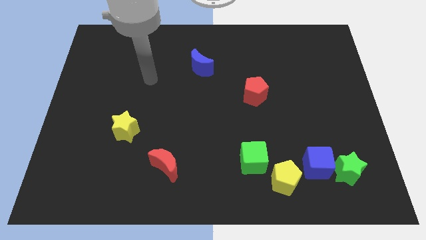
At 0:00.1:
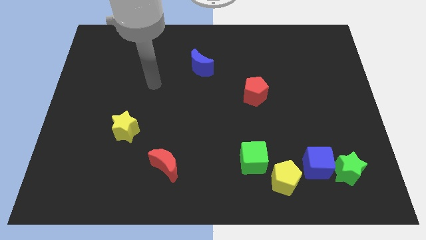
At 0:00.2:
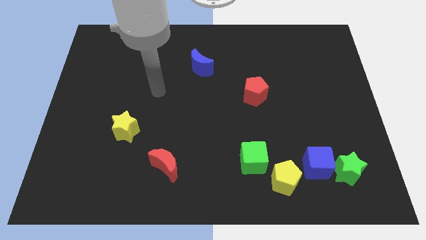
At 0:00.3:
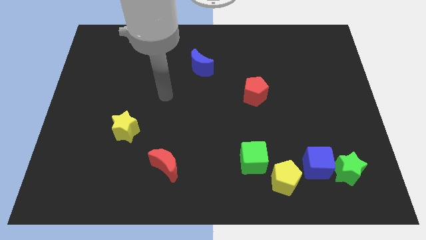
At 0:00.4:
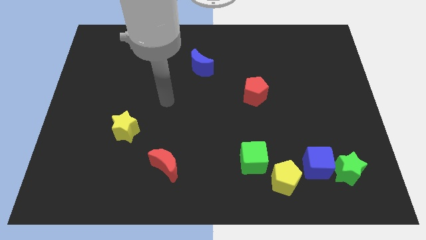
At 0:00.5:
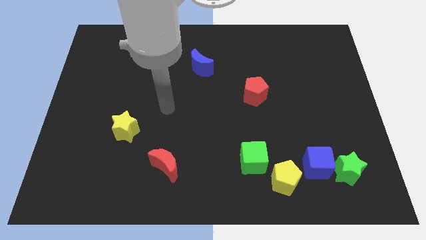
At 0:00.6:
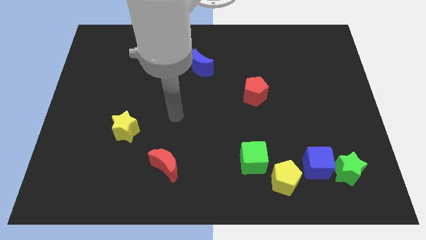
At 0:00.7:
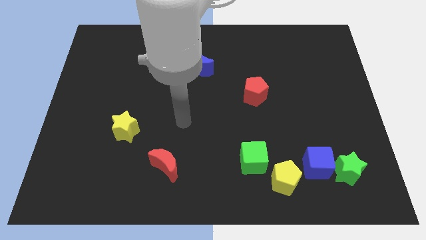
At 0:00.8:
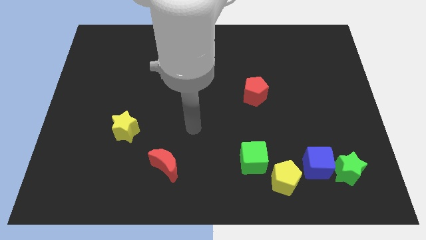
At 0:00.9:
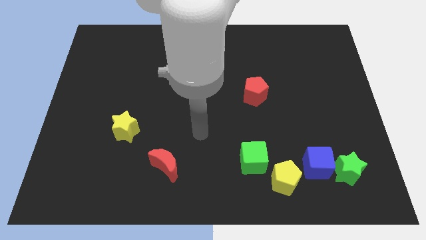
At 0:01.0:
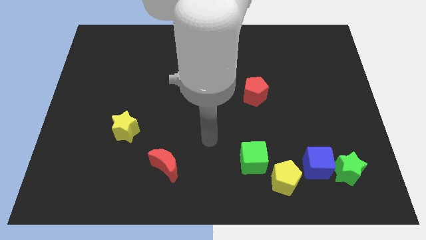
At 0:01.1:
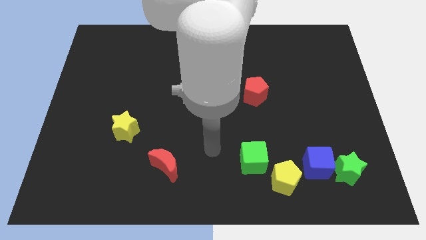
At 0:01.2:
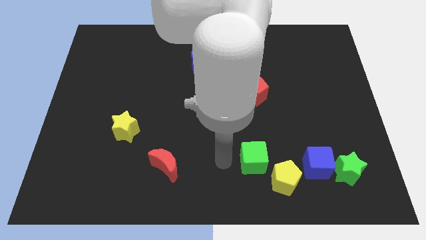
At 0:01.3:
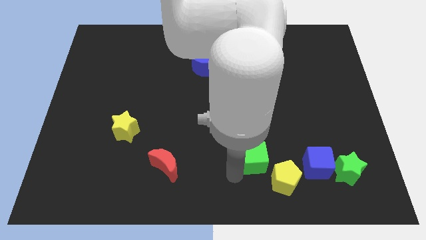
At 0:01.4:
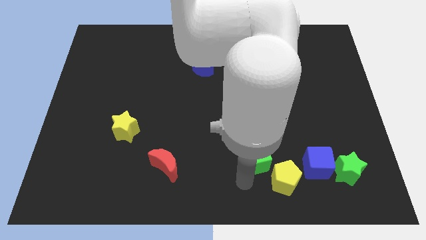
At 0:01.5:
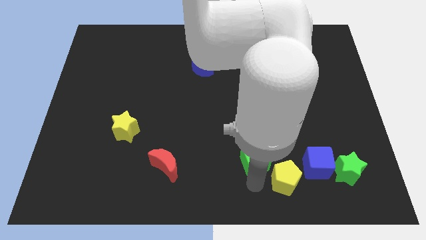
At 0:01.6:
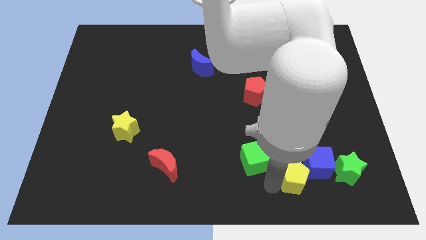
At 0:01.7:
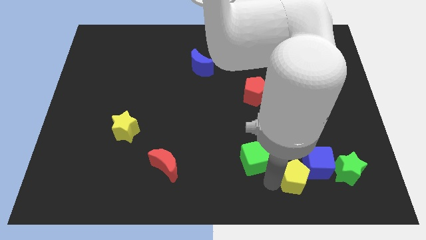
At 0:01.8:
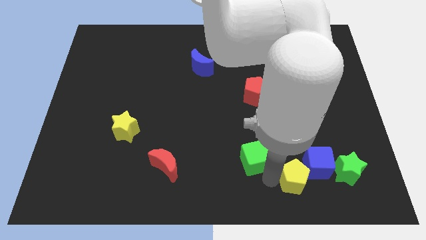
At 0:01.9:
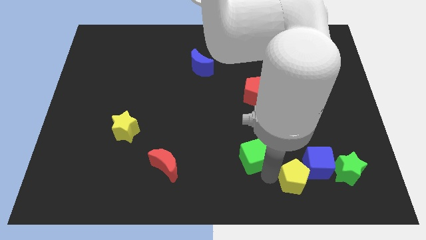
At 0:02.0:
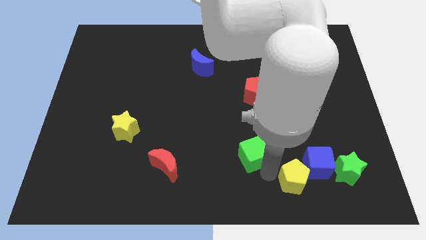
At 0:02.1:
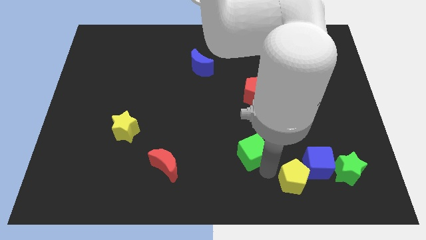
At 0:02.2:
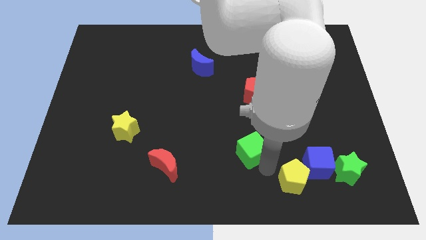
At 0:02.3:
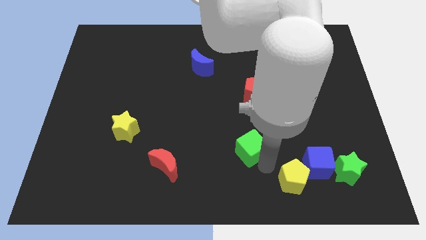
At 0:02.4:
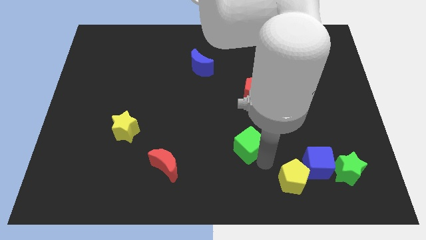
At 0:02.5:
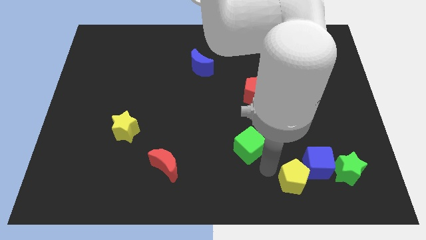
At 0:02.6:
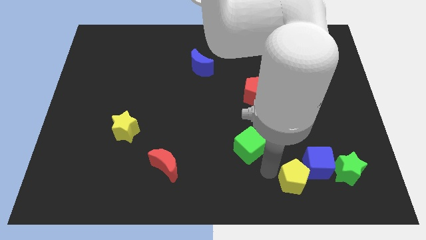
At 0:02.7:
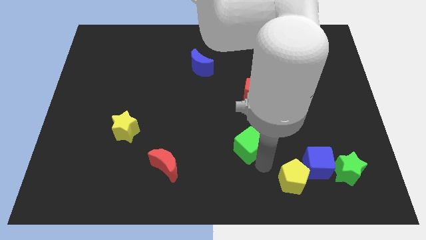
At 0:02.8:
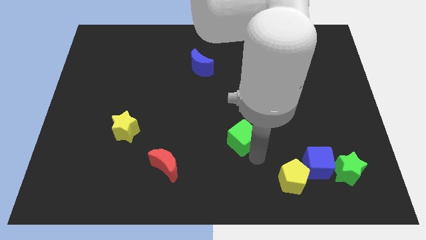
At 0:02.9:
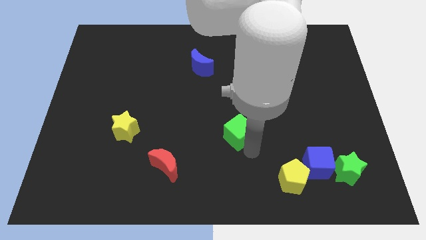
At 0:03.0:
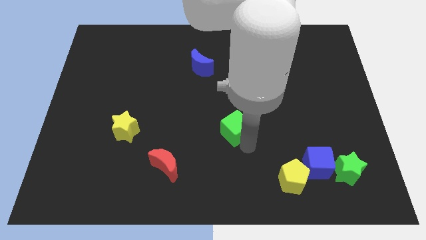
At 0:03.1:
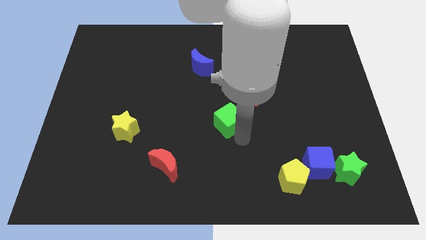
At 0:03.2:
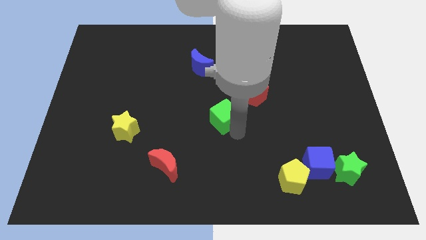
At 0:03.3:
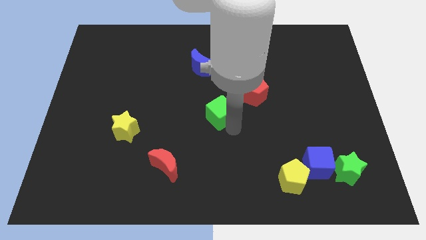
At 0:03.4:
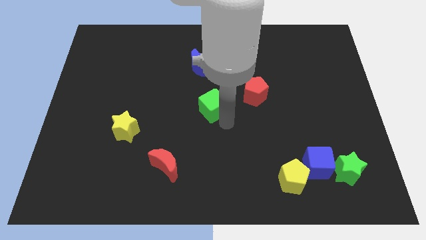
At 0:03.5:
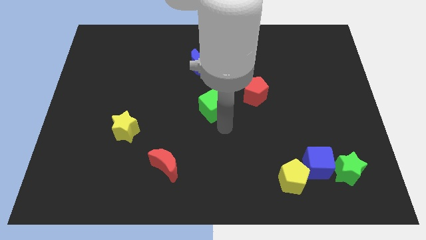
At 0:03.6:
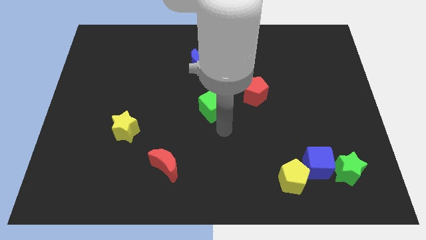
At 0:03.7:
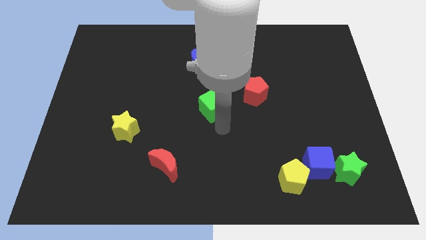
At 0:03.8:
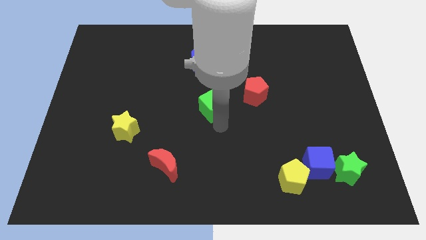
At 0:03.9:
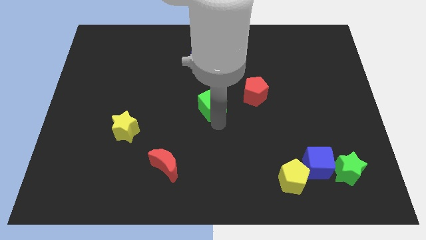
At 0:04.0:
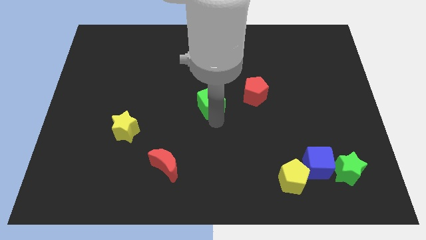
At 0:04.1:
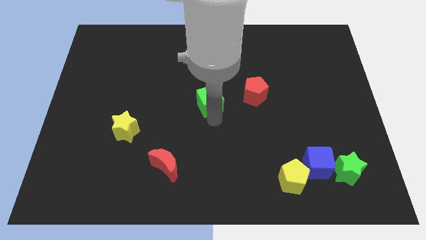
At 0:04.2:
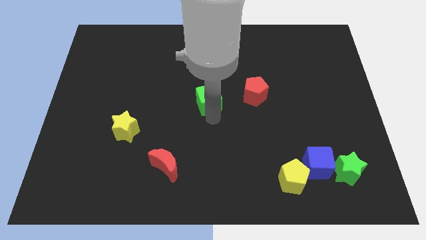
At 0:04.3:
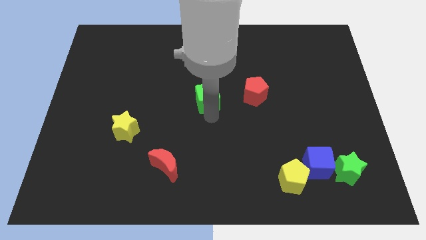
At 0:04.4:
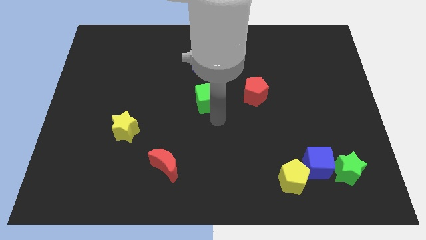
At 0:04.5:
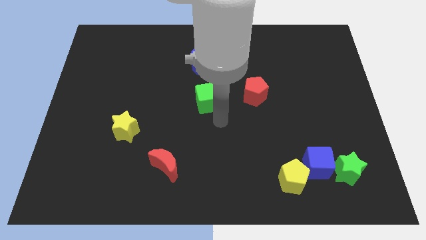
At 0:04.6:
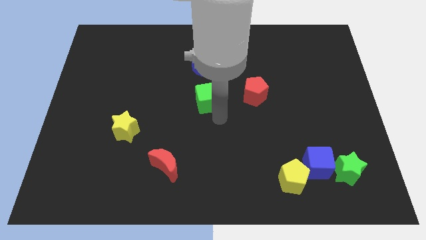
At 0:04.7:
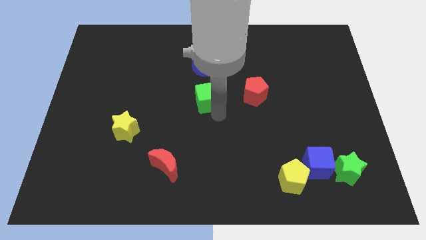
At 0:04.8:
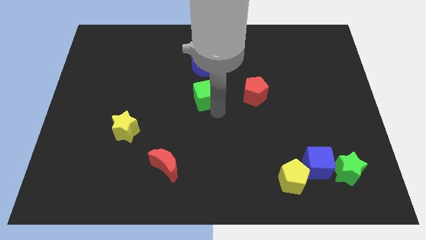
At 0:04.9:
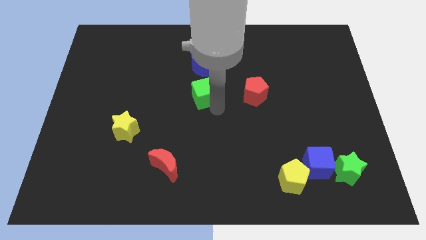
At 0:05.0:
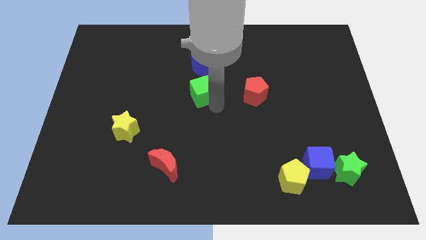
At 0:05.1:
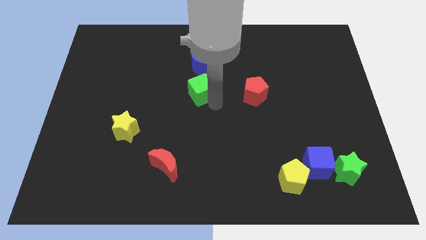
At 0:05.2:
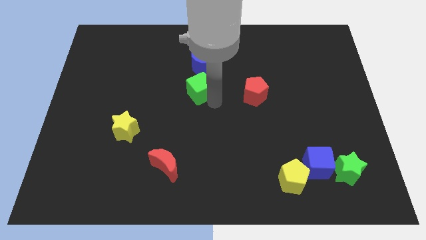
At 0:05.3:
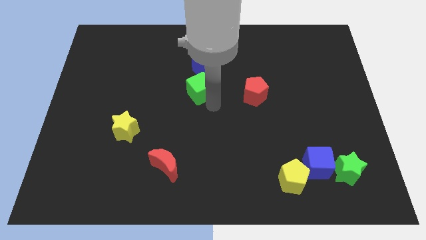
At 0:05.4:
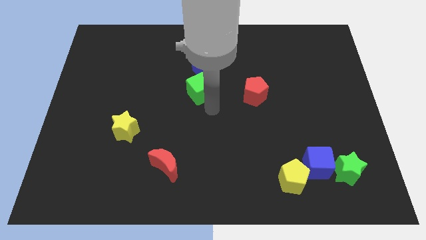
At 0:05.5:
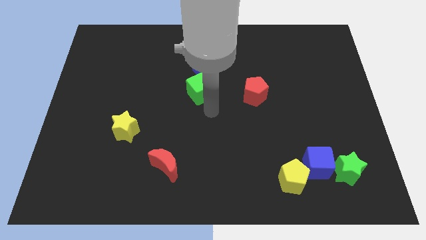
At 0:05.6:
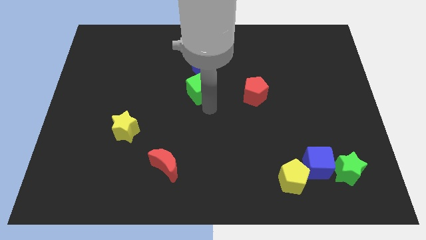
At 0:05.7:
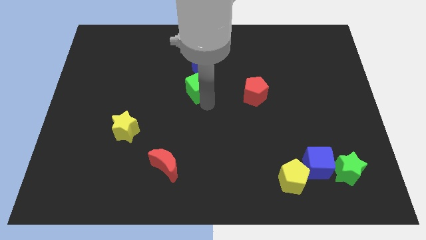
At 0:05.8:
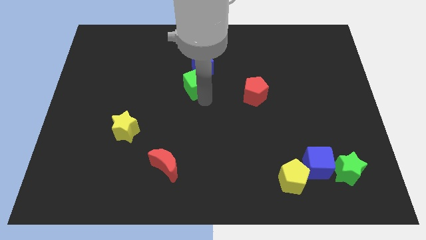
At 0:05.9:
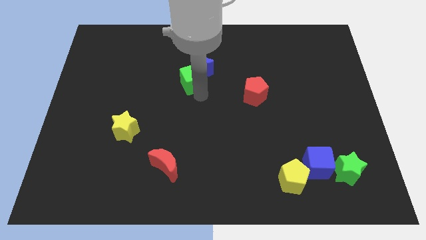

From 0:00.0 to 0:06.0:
slide the green cube towards the blue moon

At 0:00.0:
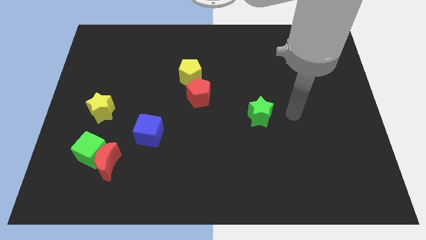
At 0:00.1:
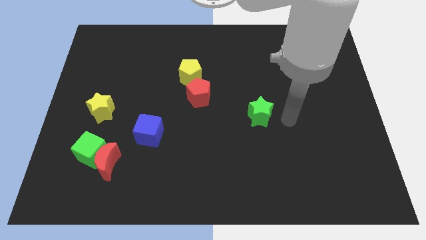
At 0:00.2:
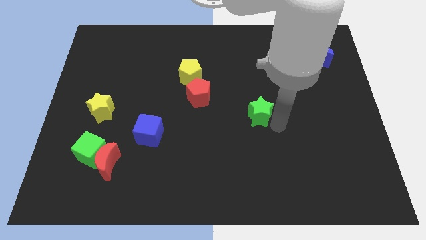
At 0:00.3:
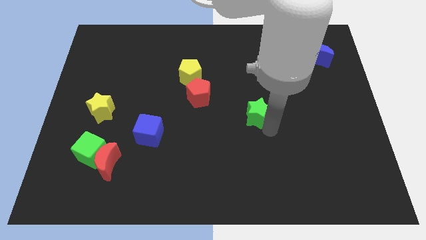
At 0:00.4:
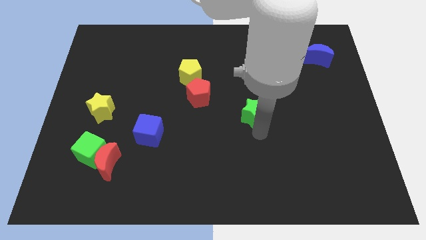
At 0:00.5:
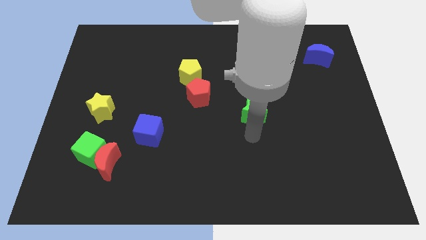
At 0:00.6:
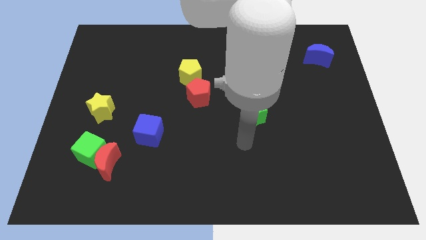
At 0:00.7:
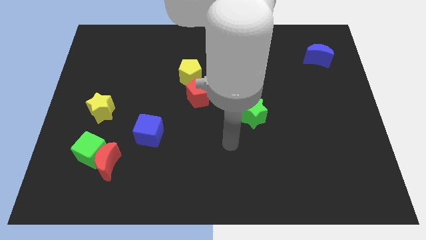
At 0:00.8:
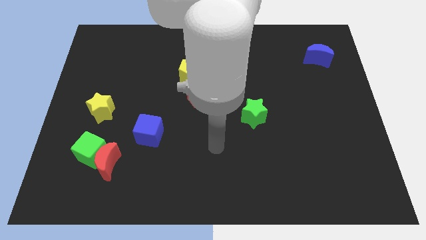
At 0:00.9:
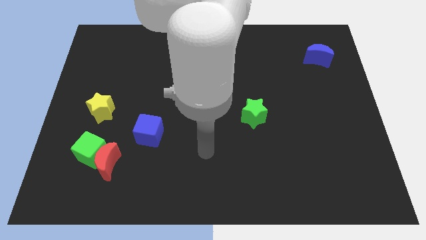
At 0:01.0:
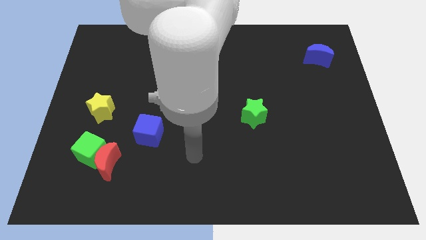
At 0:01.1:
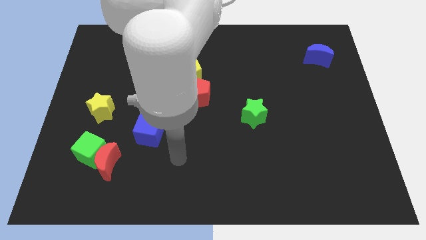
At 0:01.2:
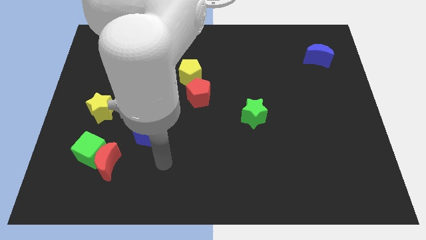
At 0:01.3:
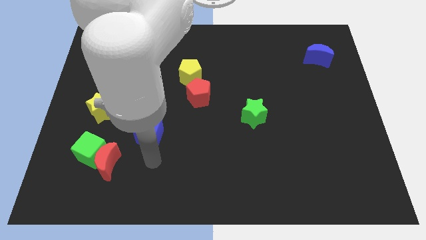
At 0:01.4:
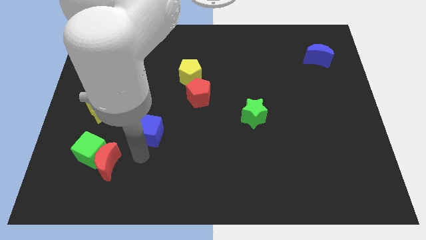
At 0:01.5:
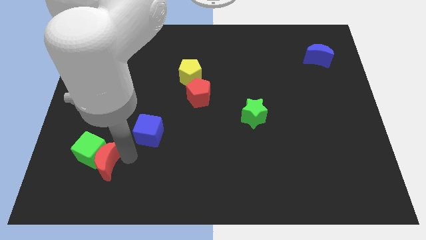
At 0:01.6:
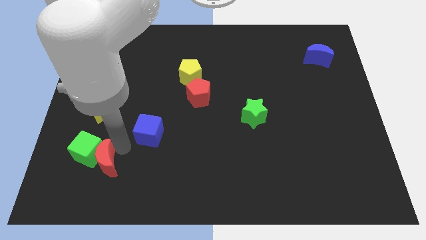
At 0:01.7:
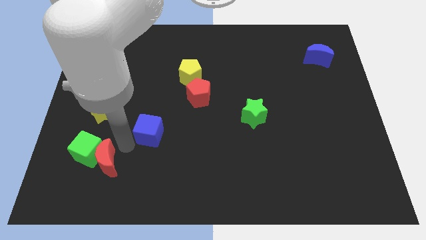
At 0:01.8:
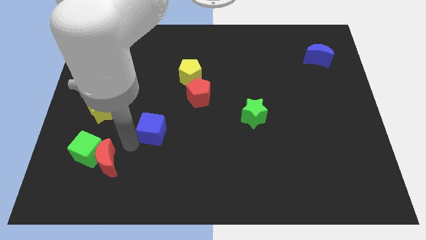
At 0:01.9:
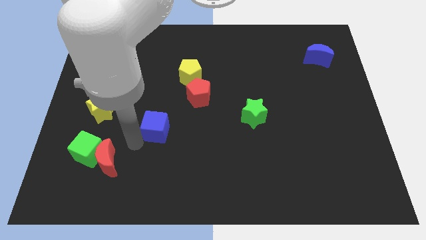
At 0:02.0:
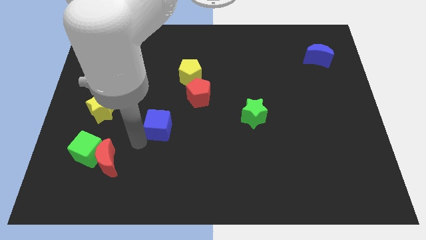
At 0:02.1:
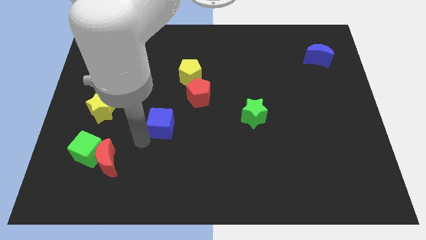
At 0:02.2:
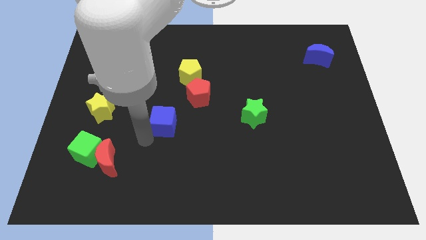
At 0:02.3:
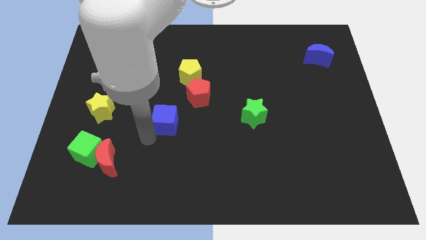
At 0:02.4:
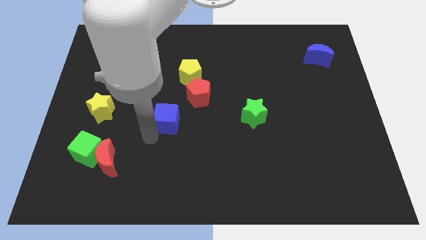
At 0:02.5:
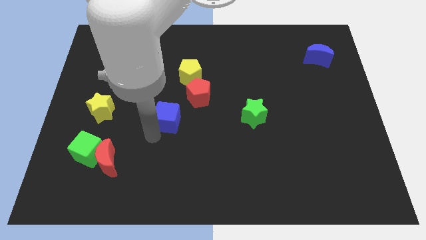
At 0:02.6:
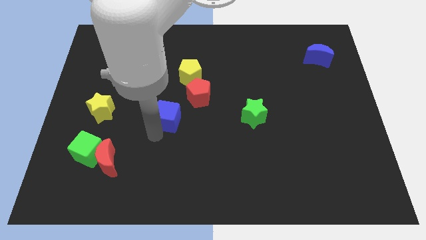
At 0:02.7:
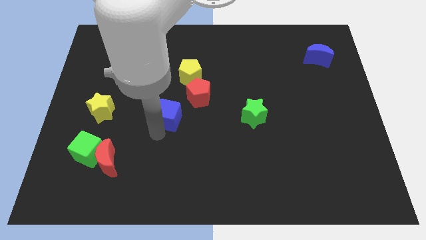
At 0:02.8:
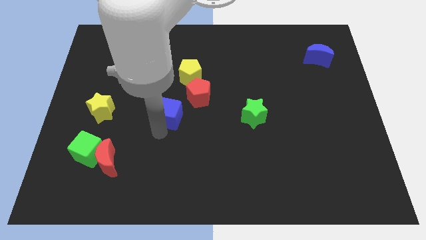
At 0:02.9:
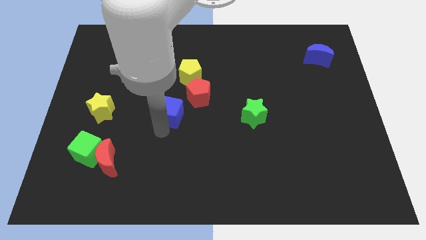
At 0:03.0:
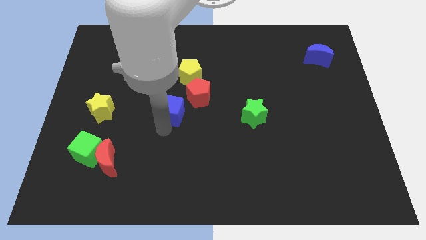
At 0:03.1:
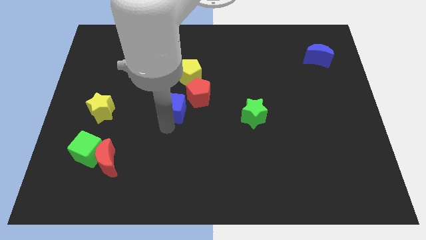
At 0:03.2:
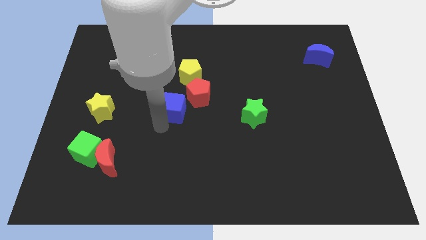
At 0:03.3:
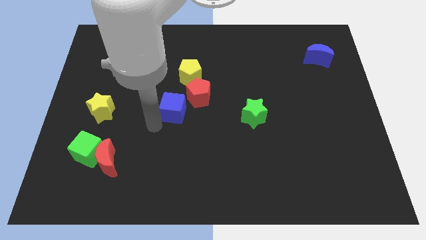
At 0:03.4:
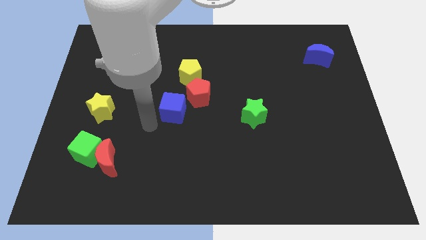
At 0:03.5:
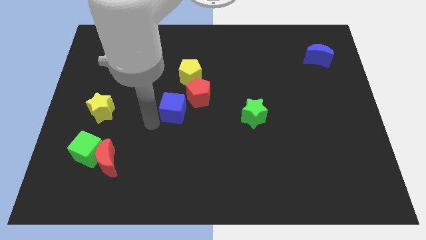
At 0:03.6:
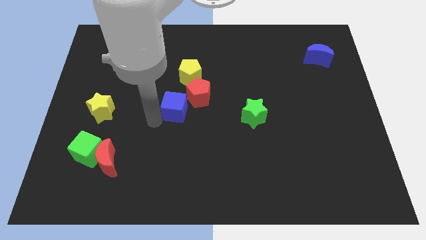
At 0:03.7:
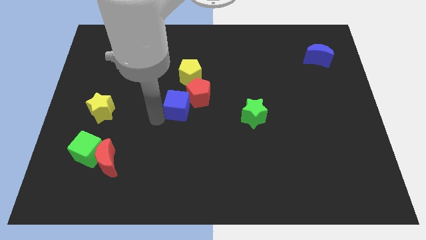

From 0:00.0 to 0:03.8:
push the blue cube close to the red pentagon
